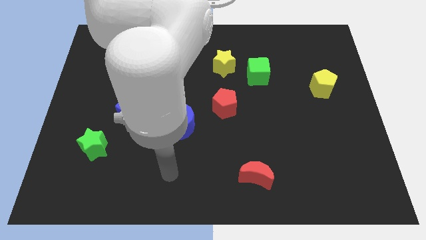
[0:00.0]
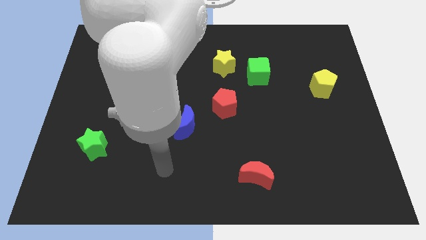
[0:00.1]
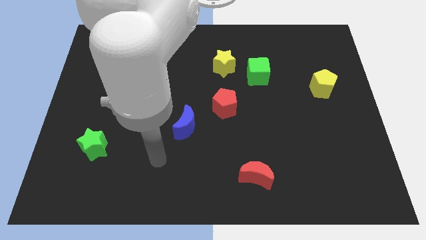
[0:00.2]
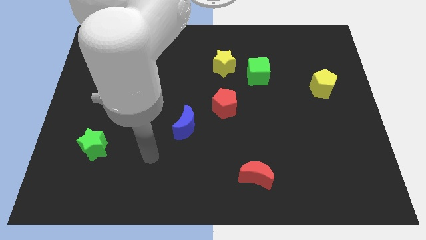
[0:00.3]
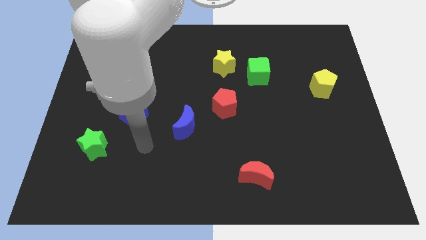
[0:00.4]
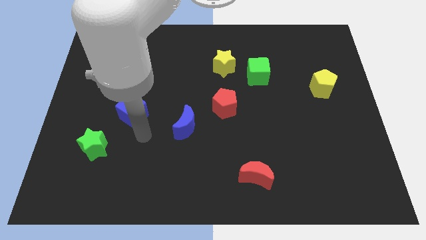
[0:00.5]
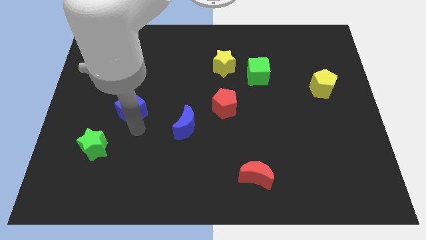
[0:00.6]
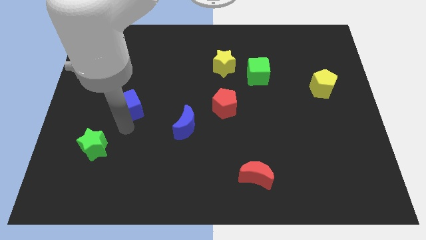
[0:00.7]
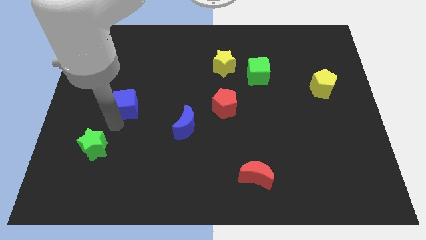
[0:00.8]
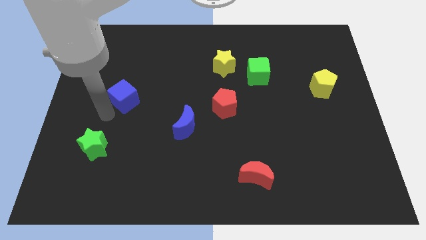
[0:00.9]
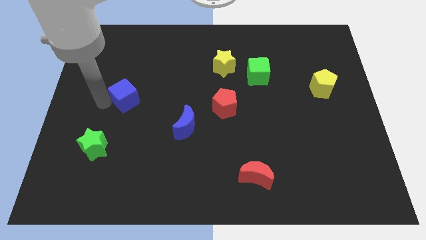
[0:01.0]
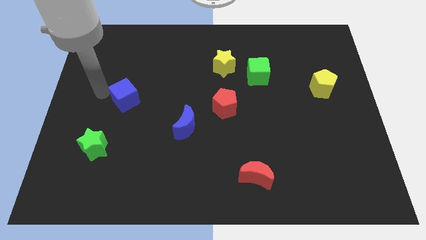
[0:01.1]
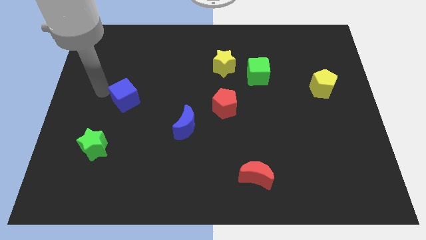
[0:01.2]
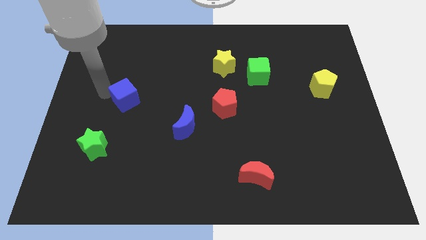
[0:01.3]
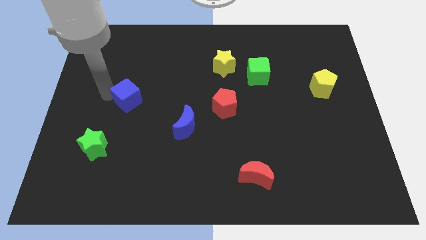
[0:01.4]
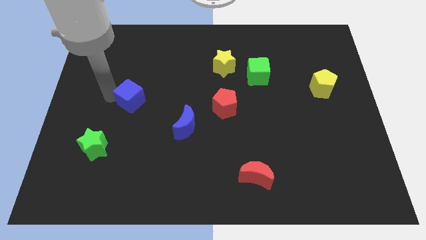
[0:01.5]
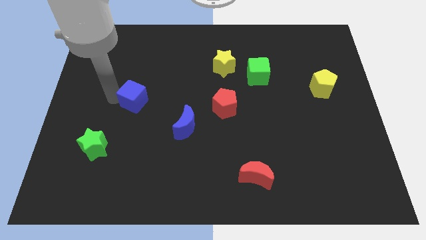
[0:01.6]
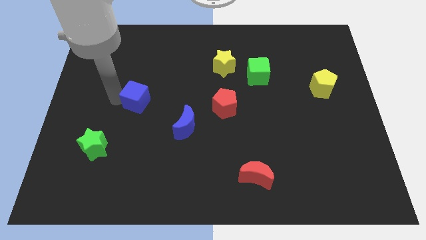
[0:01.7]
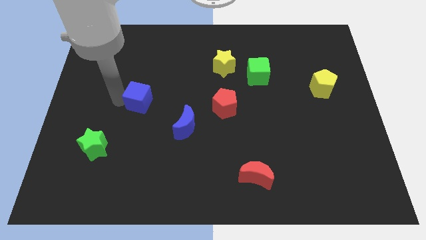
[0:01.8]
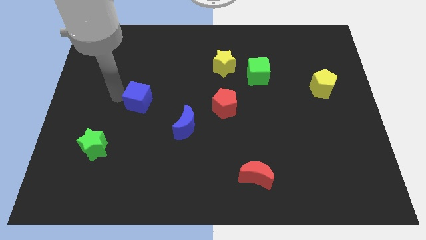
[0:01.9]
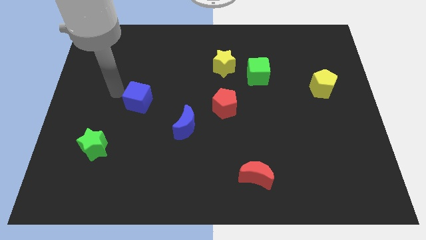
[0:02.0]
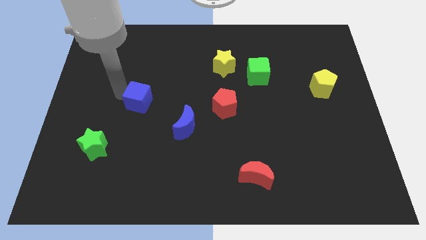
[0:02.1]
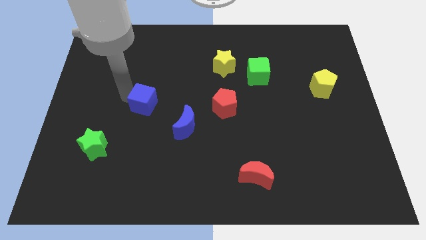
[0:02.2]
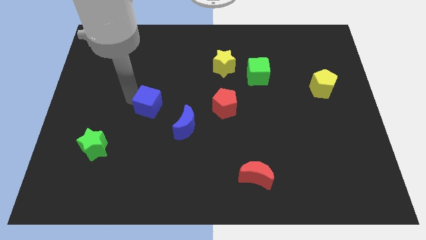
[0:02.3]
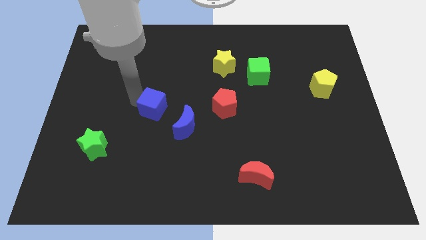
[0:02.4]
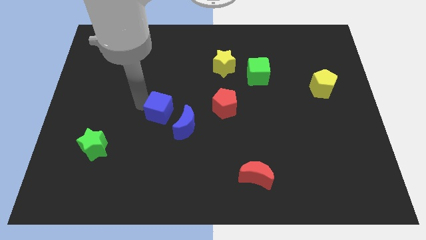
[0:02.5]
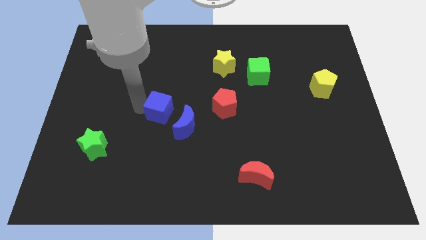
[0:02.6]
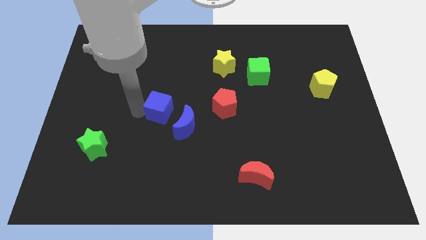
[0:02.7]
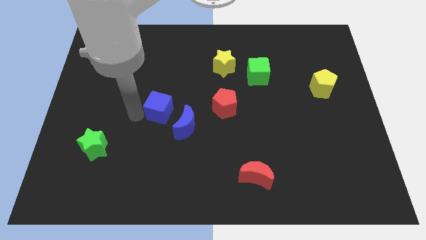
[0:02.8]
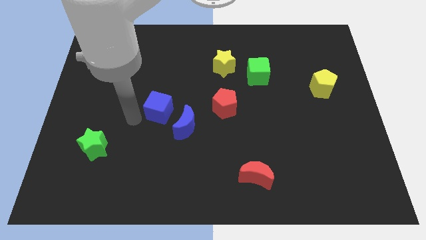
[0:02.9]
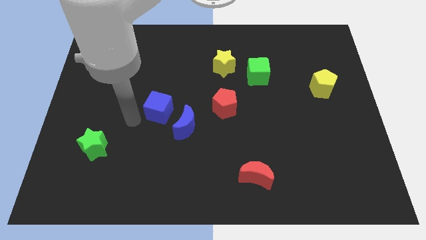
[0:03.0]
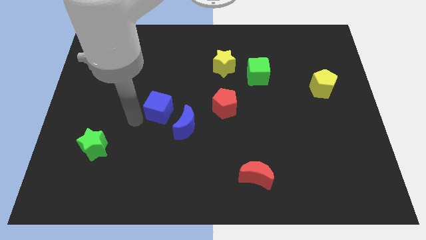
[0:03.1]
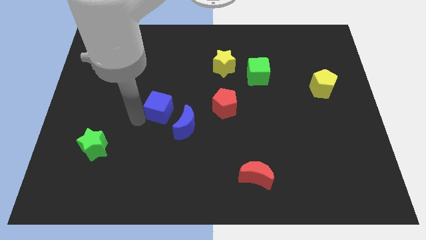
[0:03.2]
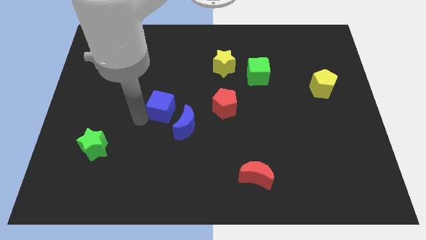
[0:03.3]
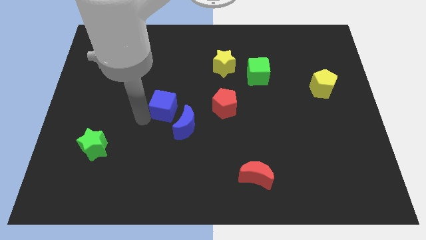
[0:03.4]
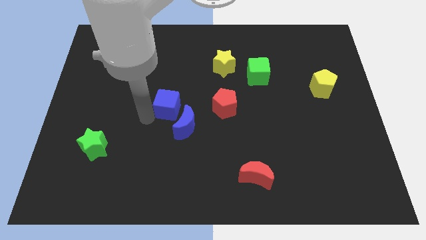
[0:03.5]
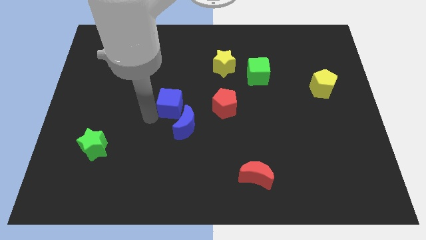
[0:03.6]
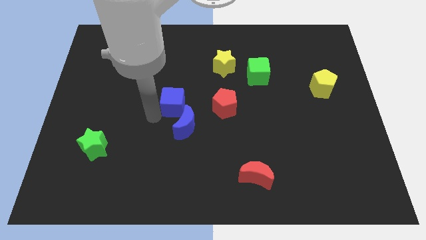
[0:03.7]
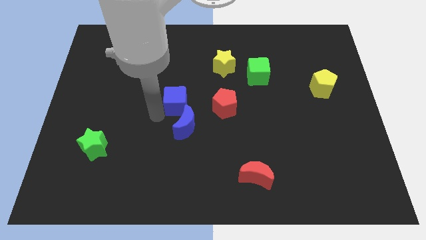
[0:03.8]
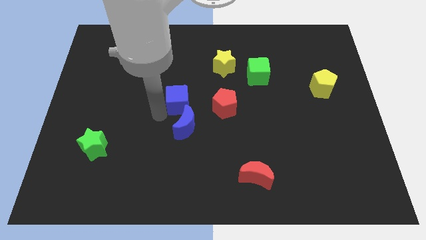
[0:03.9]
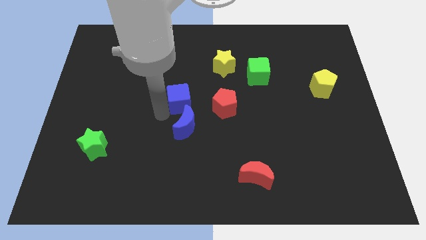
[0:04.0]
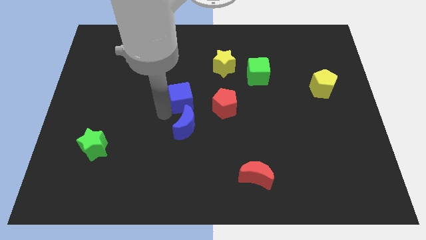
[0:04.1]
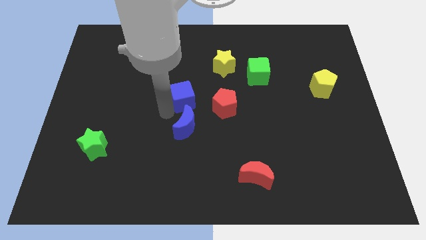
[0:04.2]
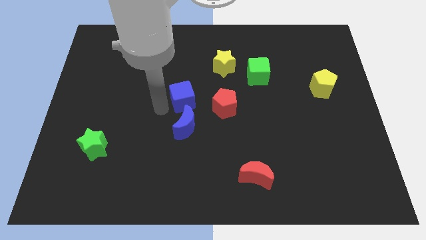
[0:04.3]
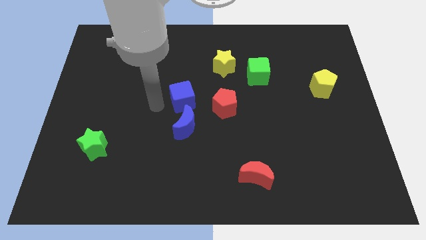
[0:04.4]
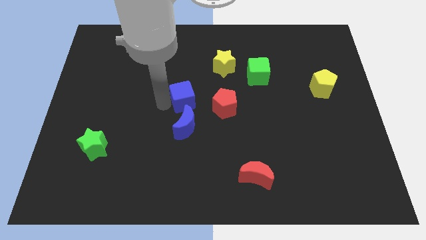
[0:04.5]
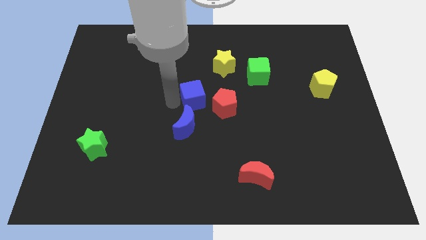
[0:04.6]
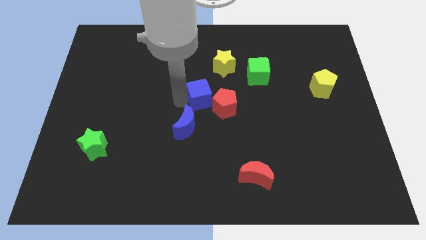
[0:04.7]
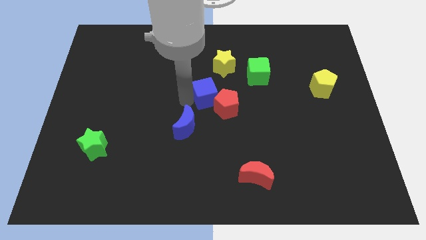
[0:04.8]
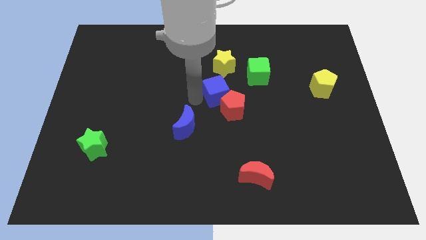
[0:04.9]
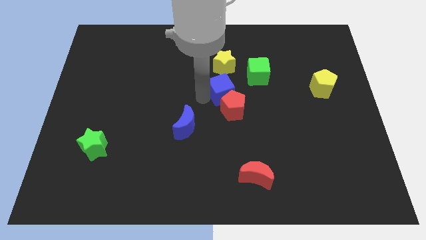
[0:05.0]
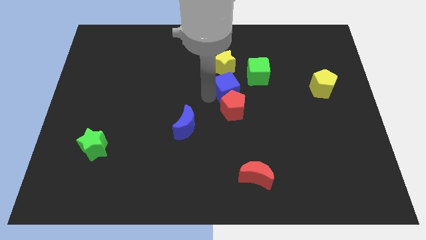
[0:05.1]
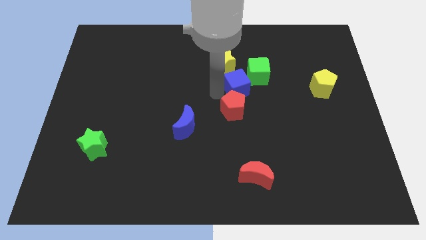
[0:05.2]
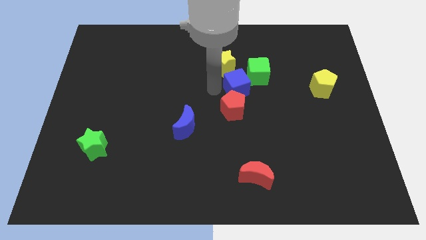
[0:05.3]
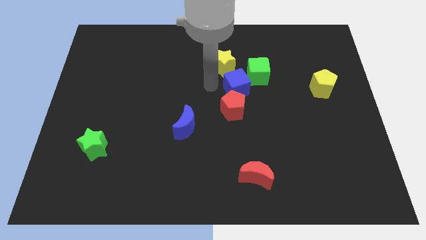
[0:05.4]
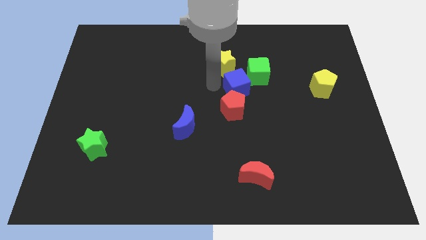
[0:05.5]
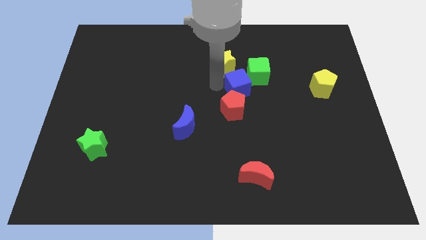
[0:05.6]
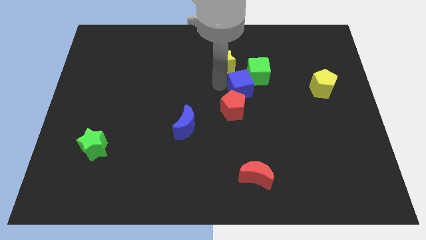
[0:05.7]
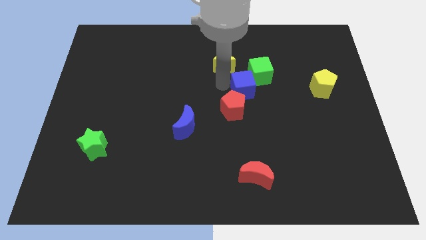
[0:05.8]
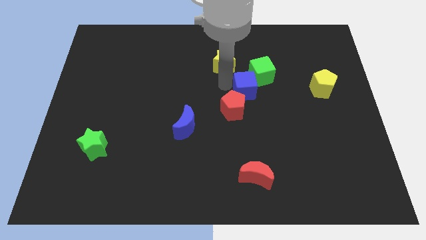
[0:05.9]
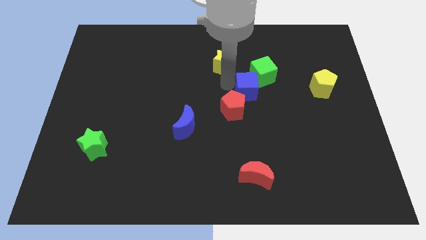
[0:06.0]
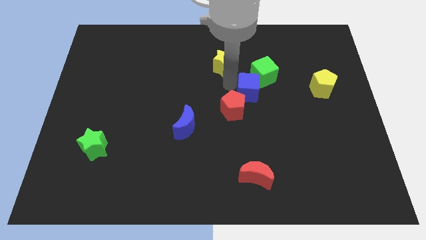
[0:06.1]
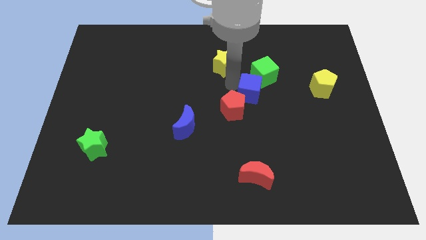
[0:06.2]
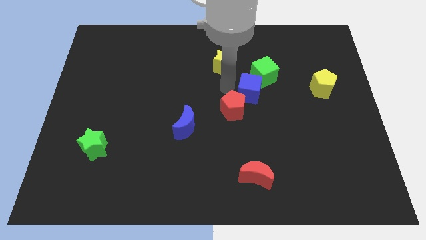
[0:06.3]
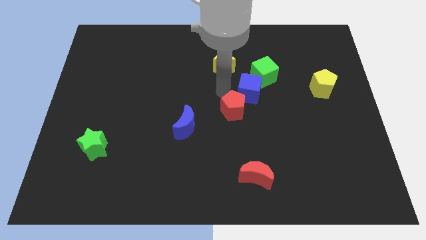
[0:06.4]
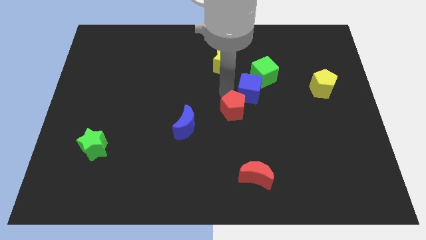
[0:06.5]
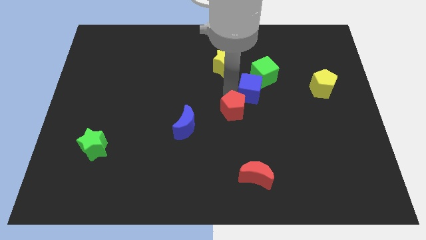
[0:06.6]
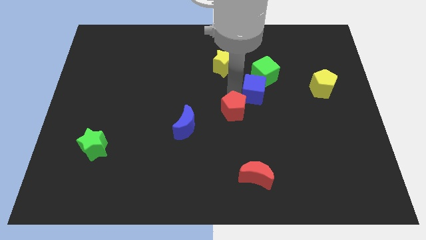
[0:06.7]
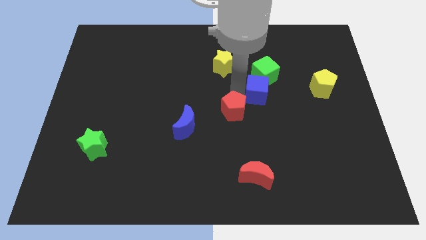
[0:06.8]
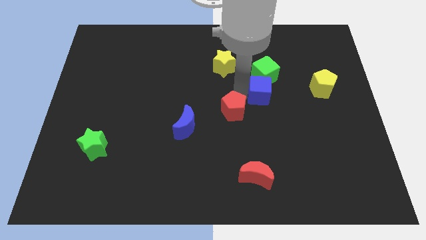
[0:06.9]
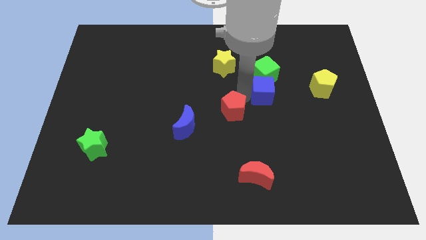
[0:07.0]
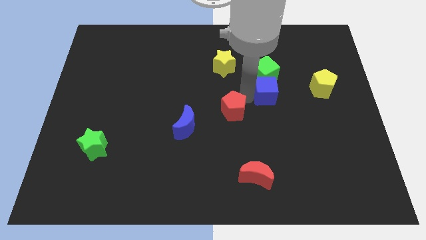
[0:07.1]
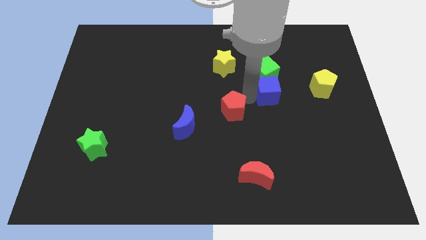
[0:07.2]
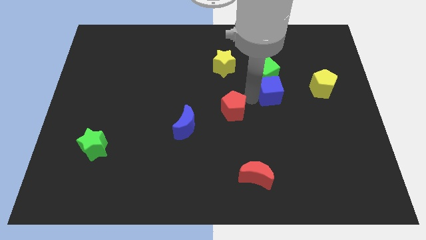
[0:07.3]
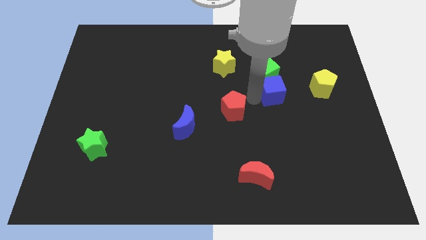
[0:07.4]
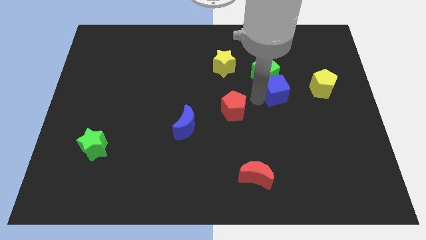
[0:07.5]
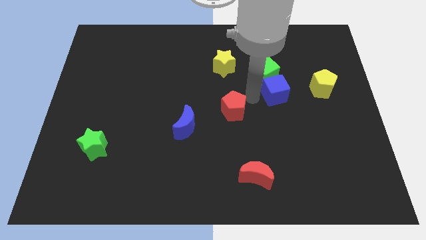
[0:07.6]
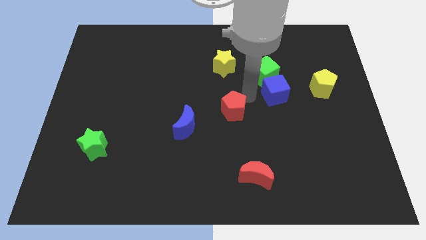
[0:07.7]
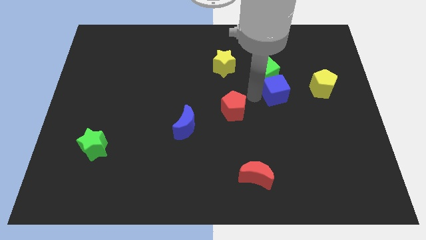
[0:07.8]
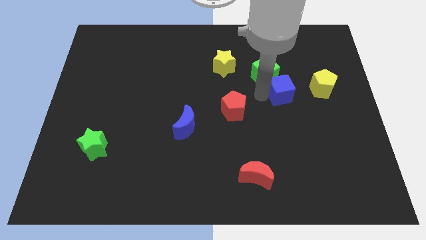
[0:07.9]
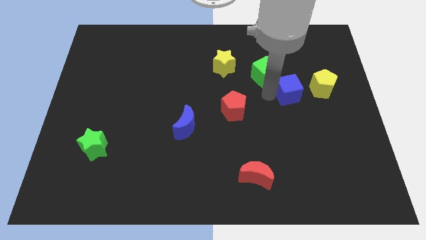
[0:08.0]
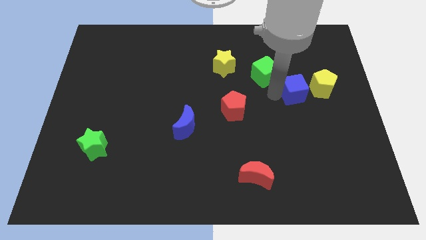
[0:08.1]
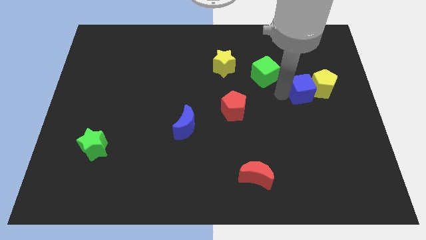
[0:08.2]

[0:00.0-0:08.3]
move the blue cube towards the yellow pentagon
